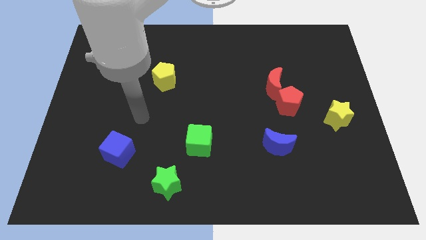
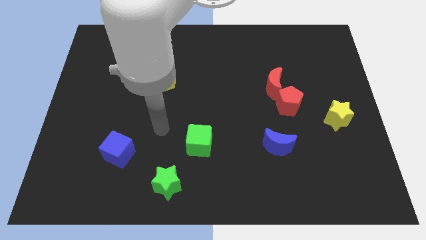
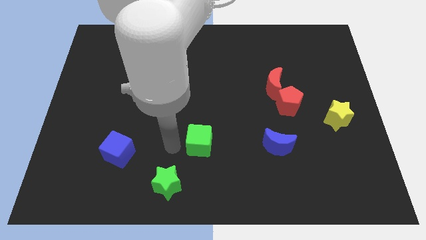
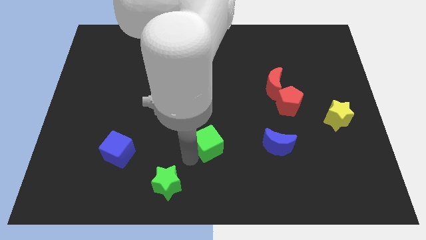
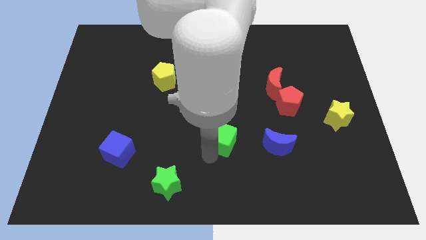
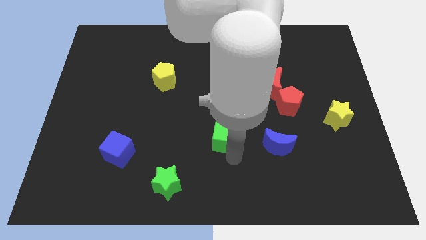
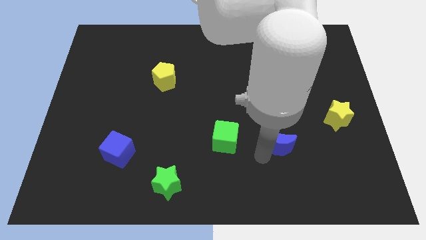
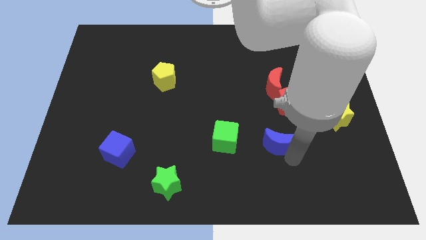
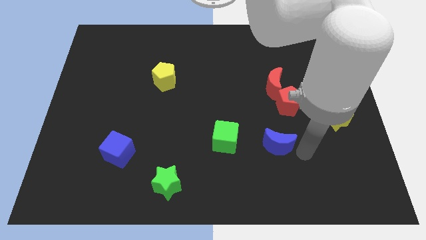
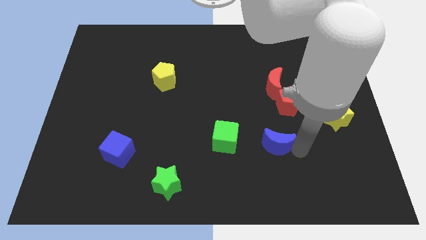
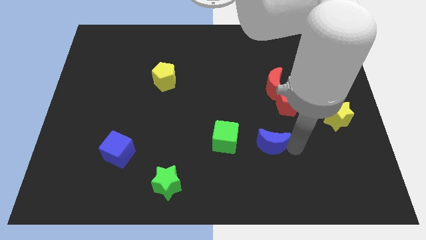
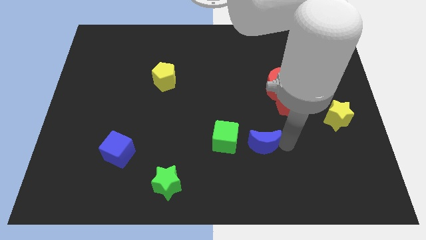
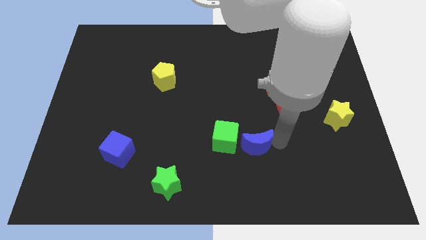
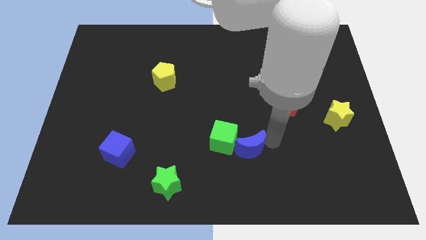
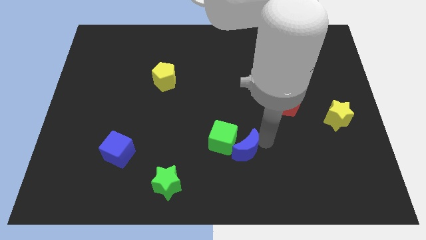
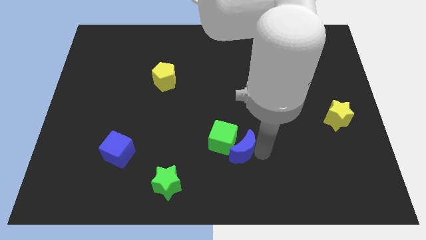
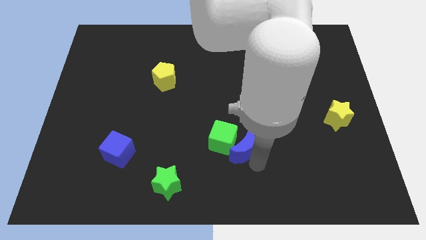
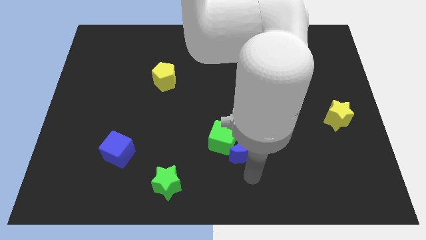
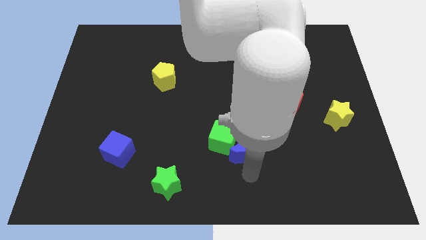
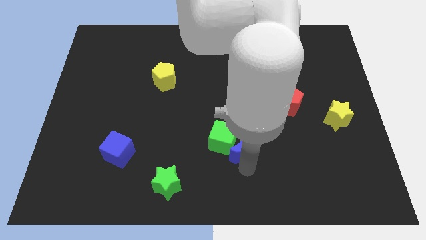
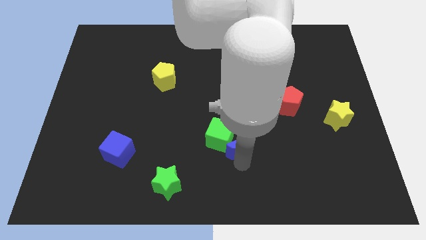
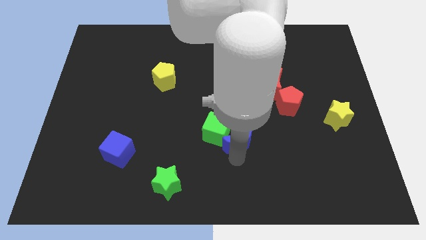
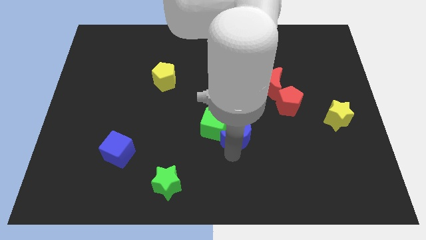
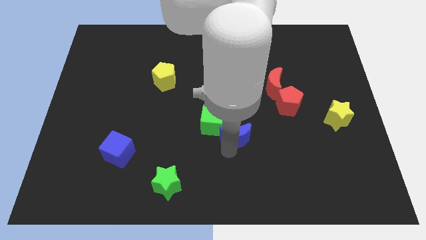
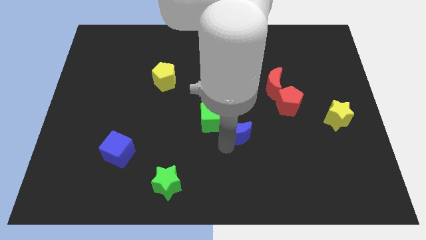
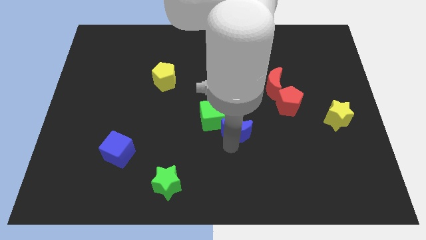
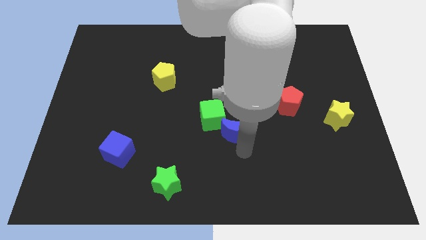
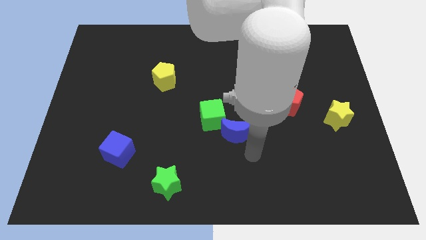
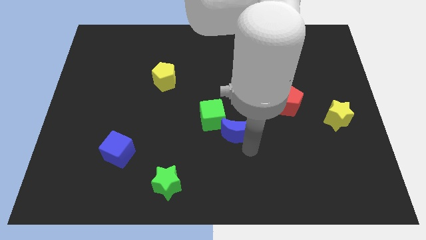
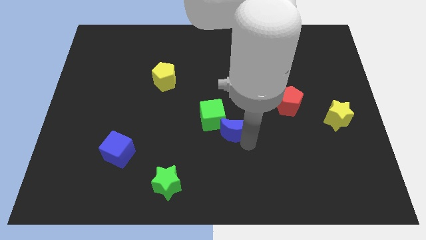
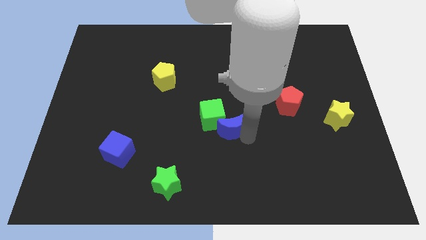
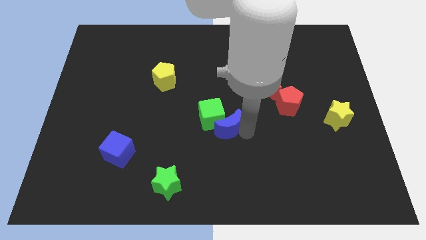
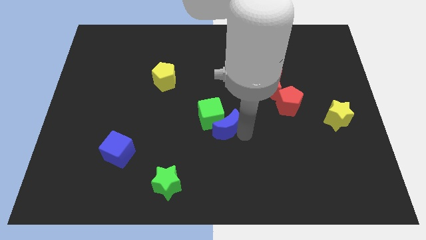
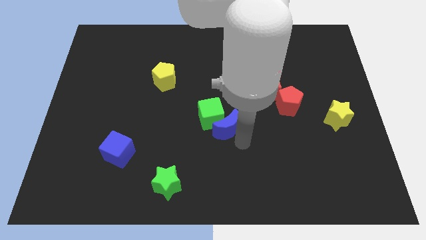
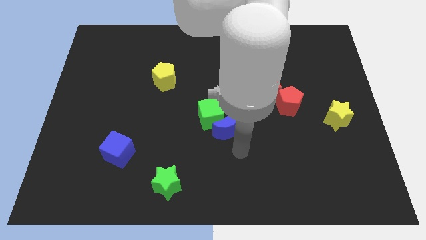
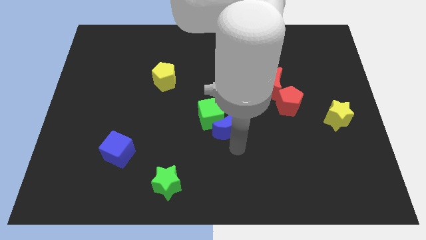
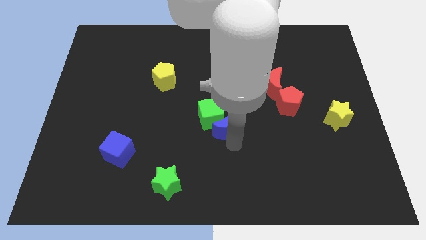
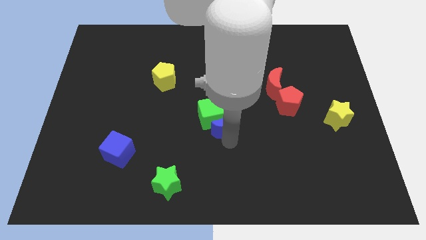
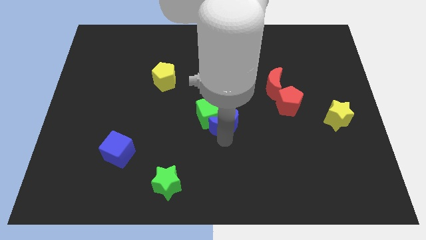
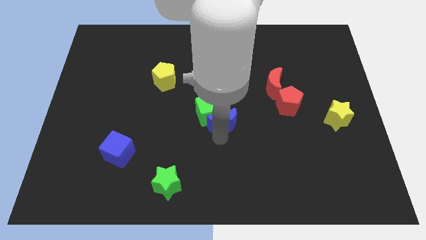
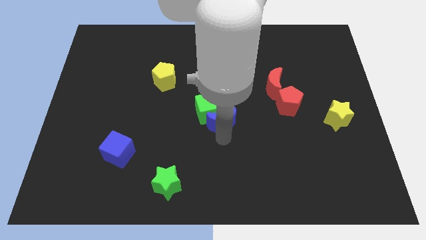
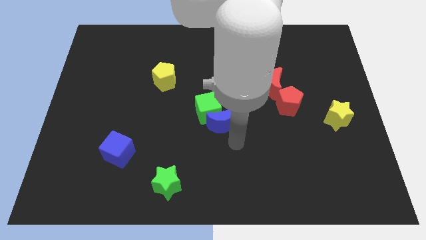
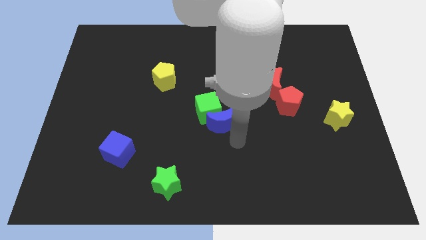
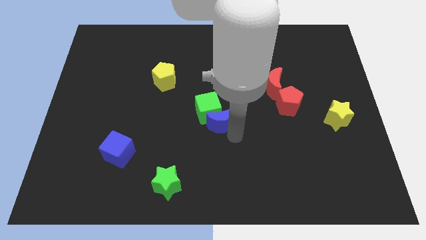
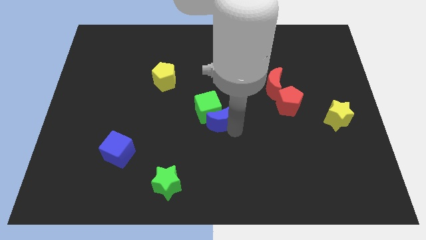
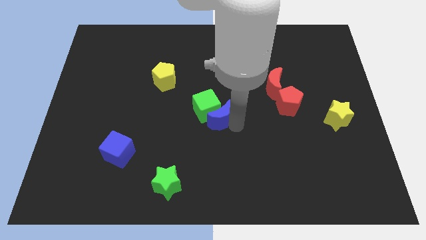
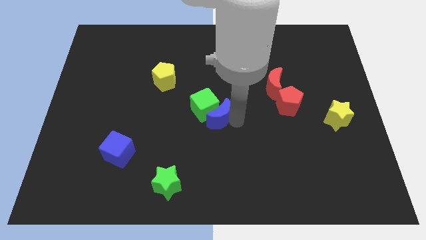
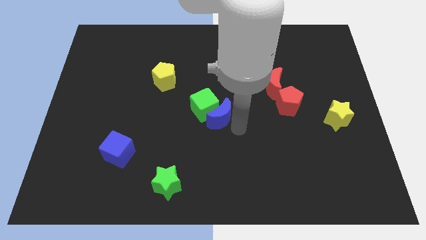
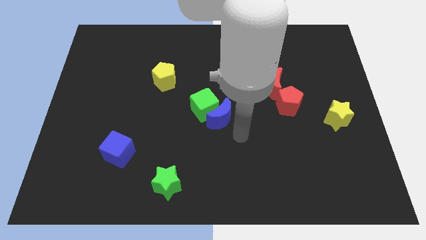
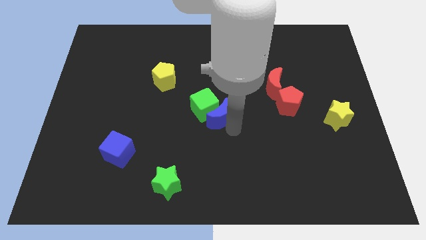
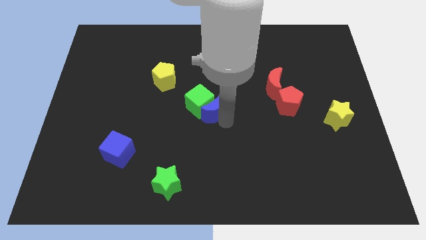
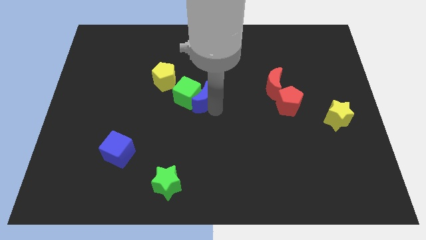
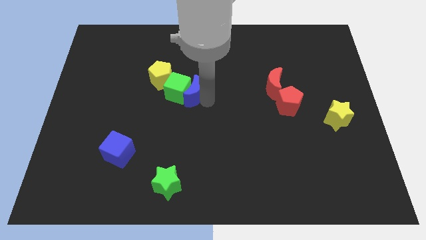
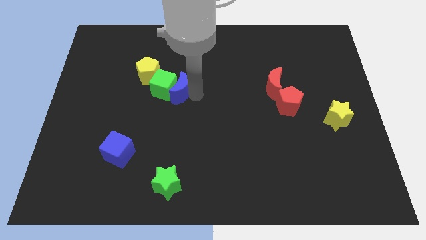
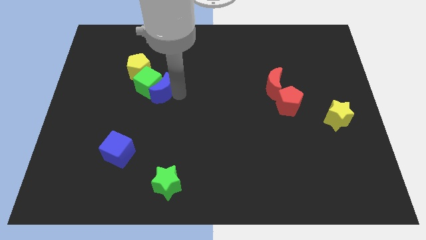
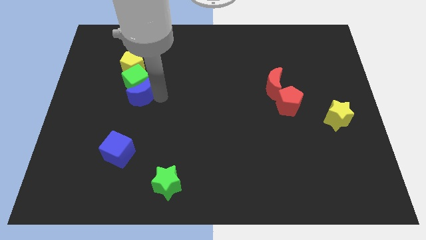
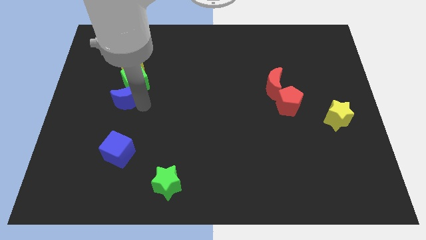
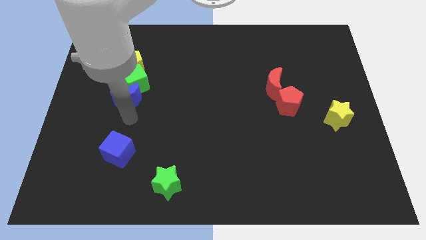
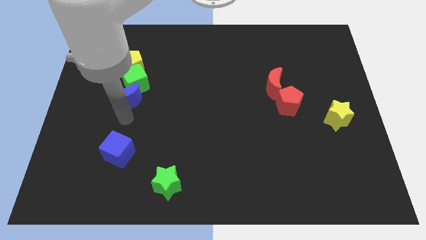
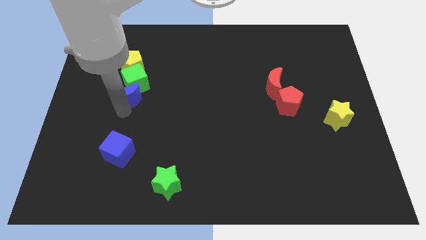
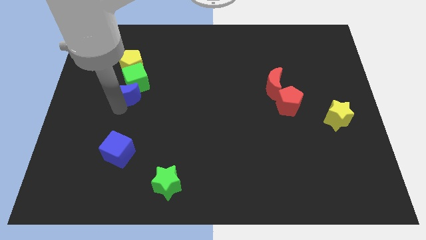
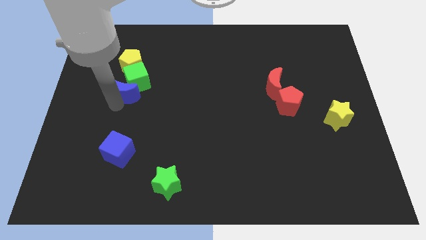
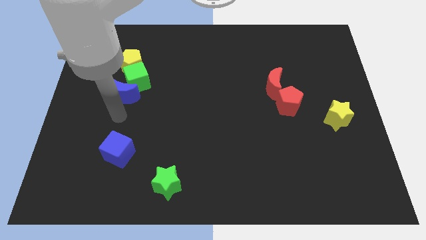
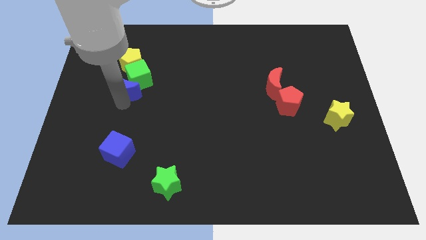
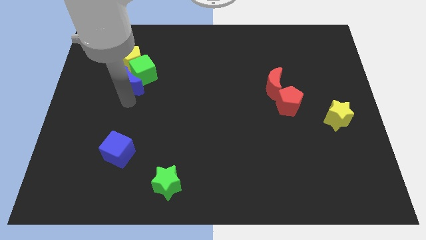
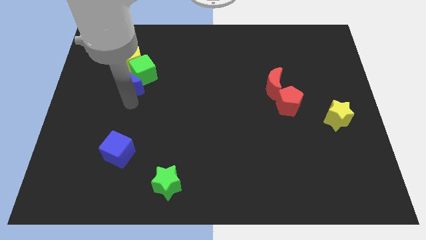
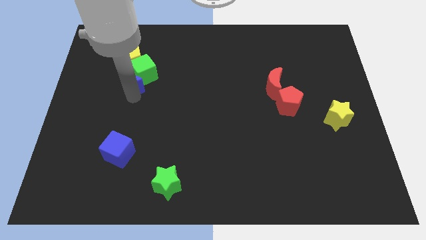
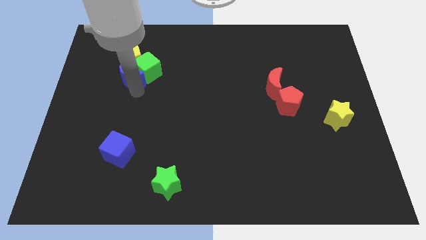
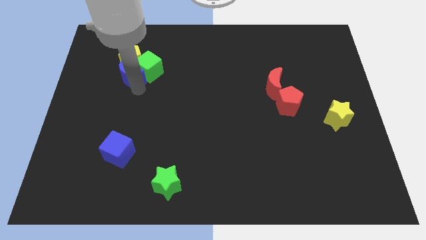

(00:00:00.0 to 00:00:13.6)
move the blue moon next to the yellow pentagon
